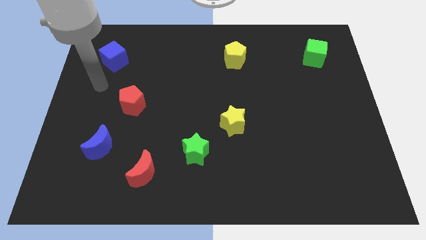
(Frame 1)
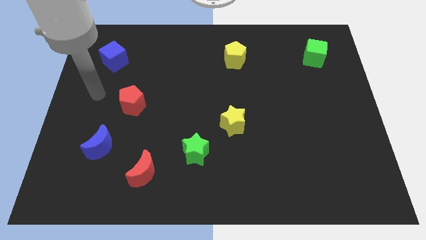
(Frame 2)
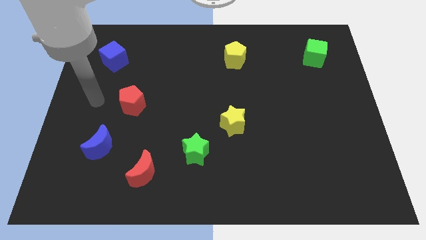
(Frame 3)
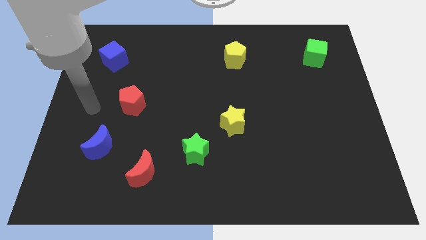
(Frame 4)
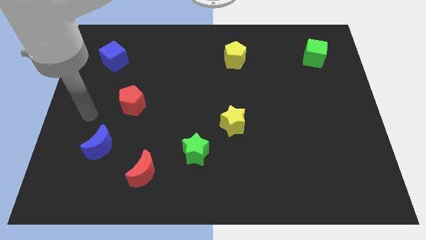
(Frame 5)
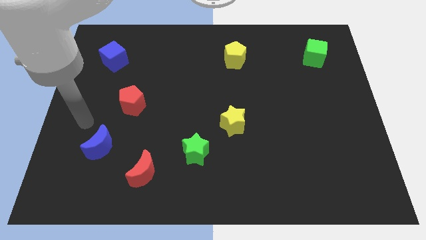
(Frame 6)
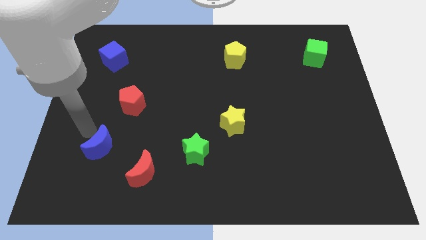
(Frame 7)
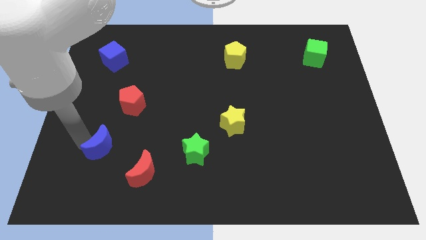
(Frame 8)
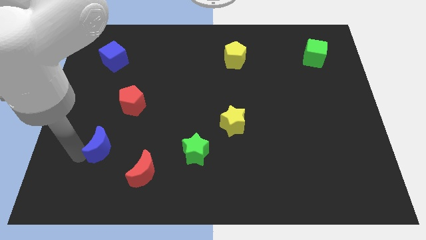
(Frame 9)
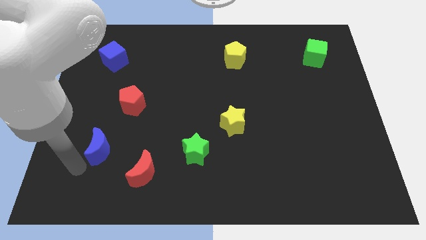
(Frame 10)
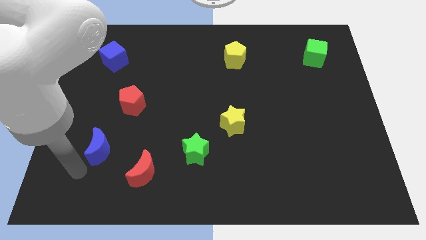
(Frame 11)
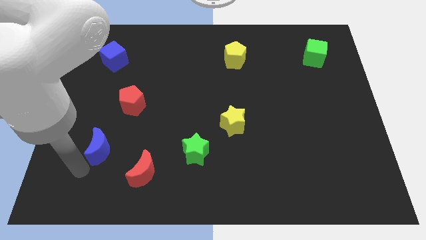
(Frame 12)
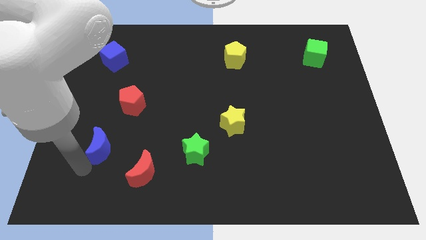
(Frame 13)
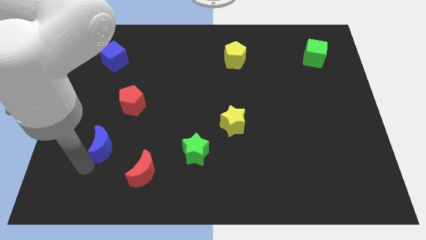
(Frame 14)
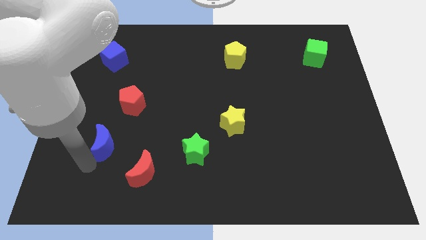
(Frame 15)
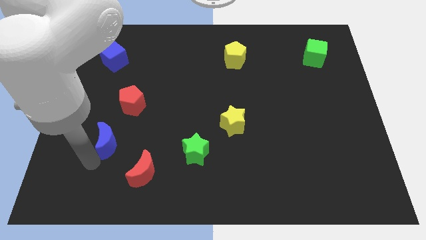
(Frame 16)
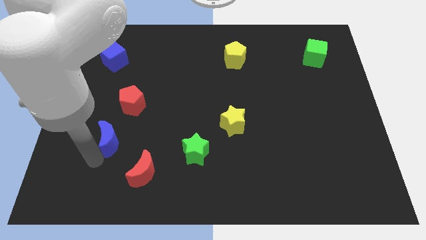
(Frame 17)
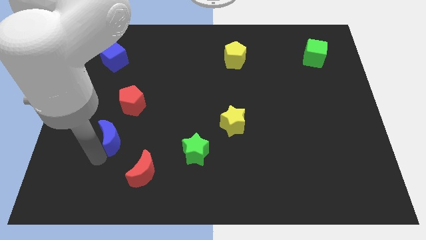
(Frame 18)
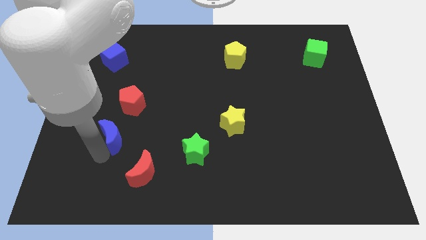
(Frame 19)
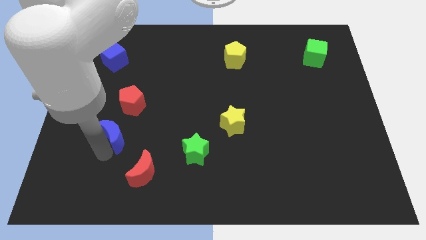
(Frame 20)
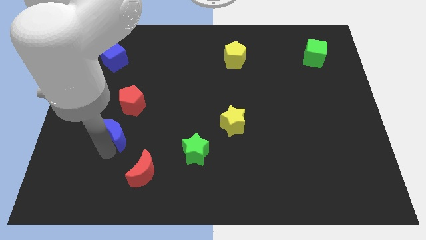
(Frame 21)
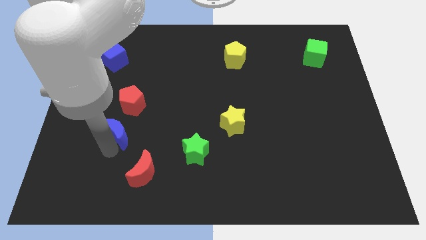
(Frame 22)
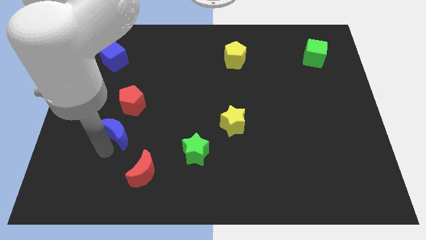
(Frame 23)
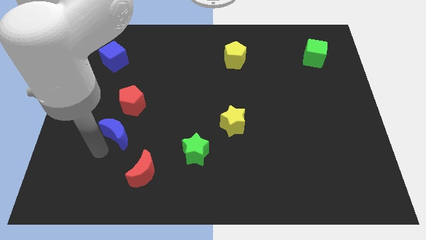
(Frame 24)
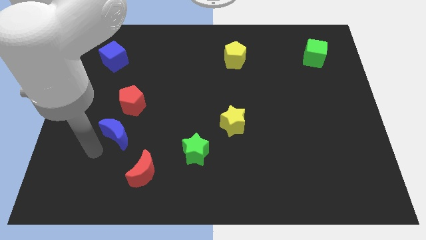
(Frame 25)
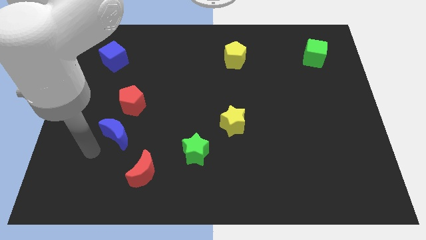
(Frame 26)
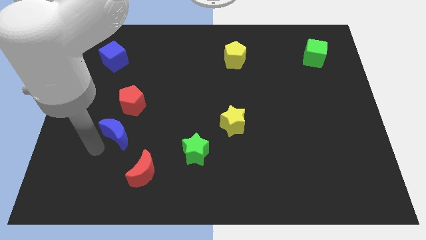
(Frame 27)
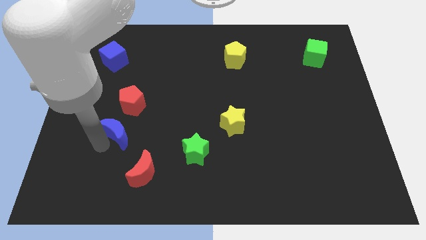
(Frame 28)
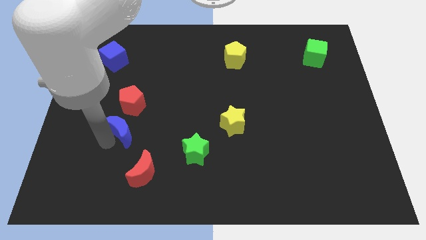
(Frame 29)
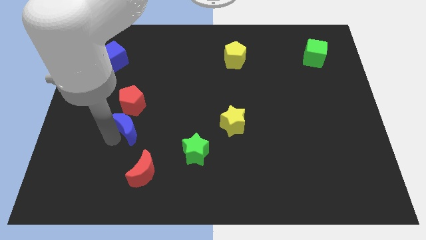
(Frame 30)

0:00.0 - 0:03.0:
slightly push the blue moon upwards and to the right diagonally

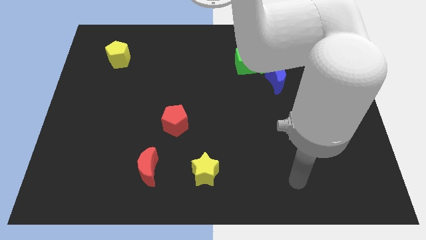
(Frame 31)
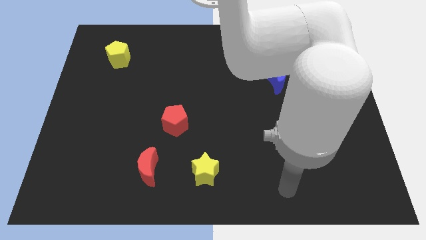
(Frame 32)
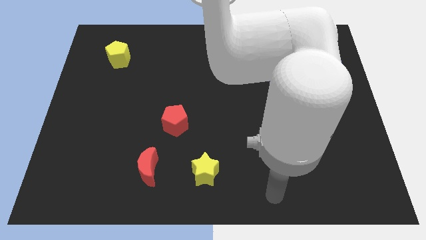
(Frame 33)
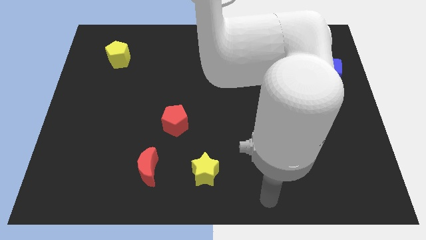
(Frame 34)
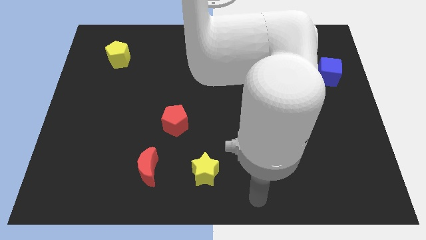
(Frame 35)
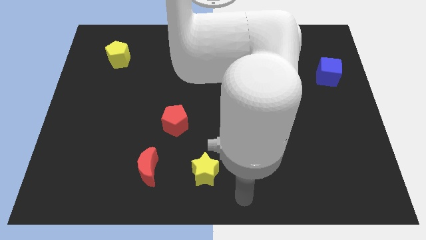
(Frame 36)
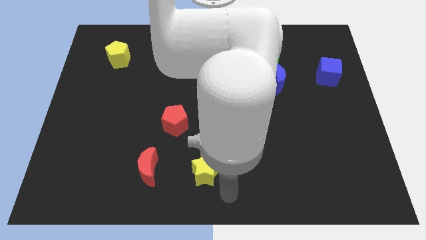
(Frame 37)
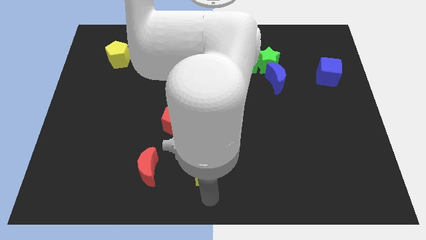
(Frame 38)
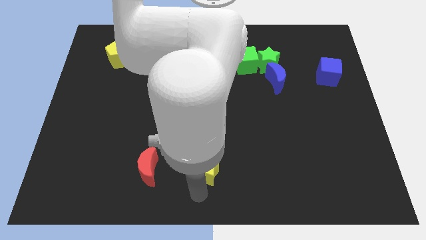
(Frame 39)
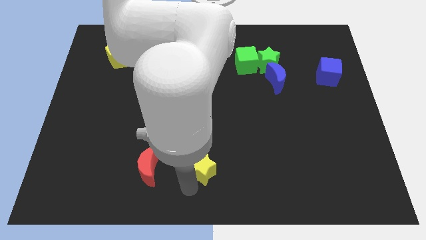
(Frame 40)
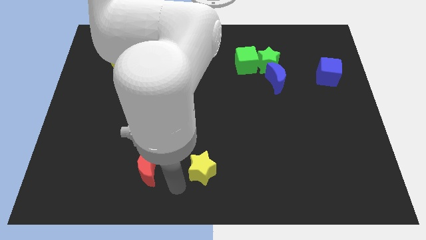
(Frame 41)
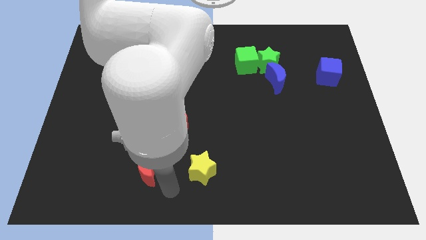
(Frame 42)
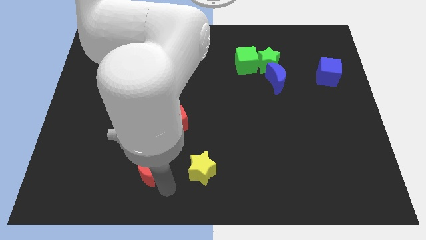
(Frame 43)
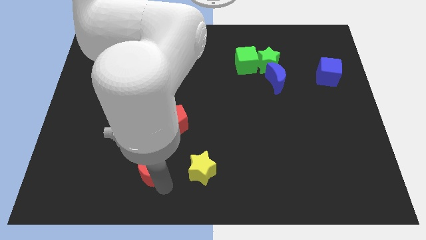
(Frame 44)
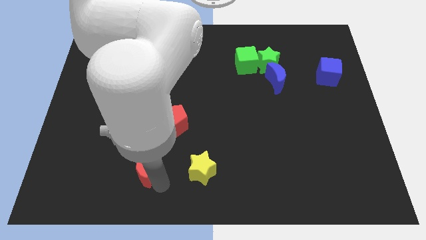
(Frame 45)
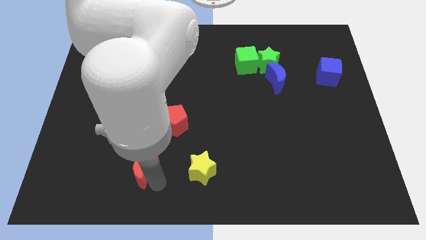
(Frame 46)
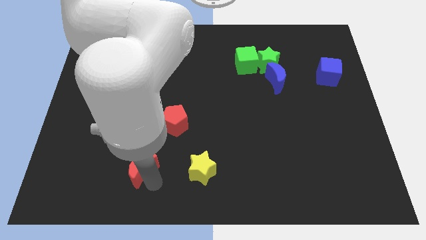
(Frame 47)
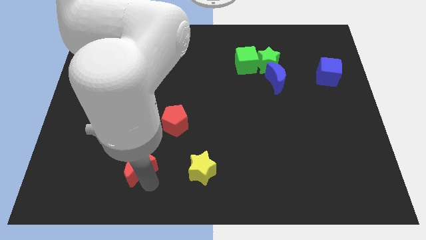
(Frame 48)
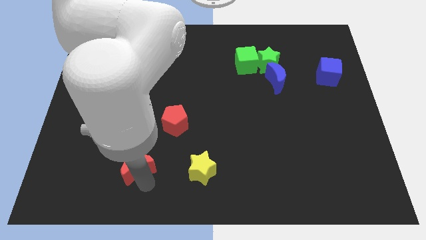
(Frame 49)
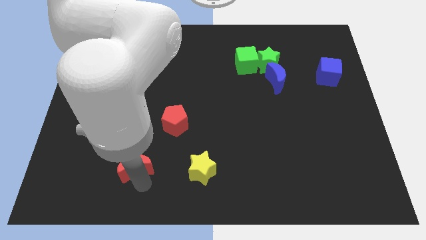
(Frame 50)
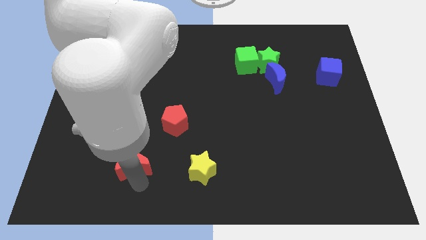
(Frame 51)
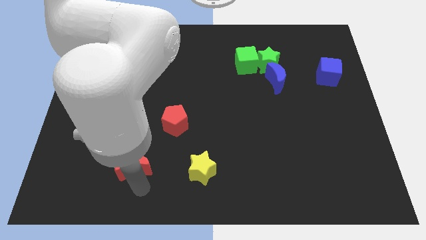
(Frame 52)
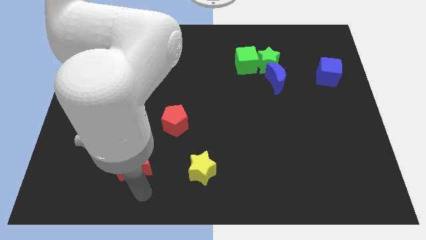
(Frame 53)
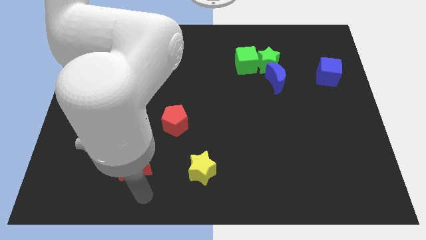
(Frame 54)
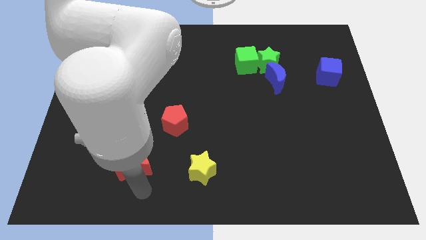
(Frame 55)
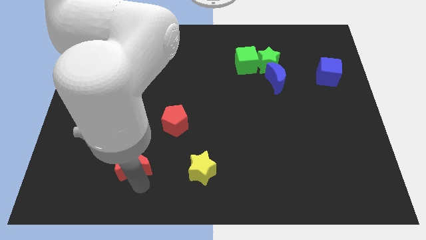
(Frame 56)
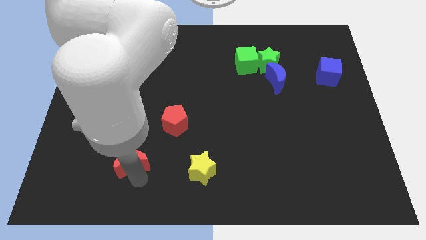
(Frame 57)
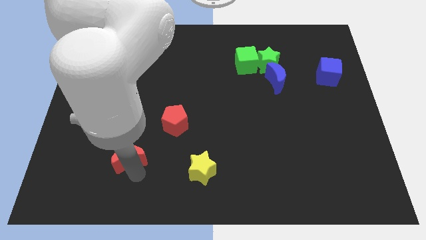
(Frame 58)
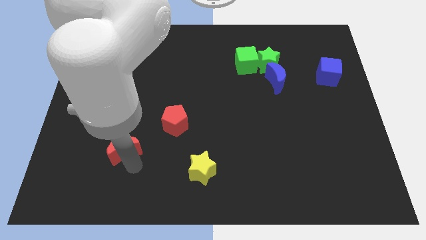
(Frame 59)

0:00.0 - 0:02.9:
slightly push the red moon upwards and to the left diagonally

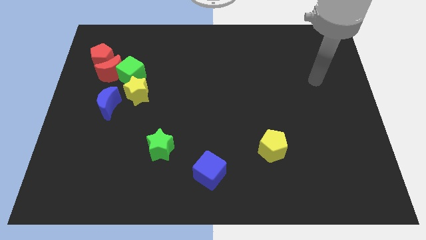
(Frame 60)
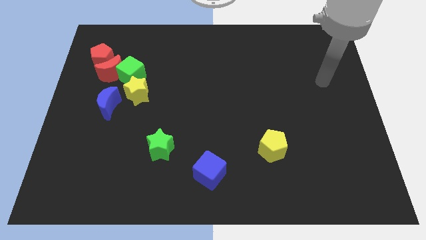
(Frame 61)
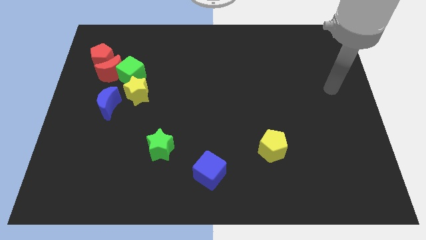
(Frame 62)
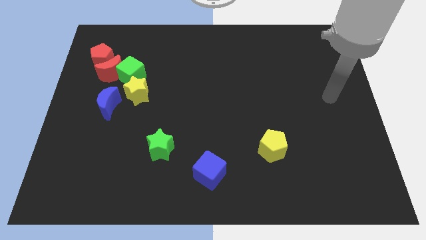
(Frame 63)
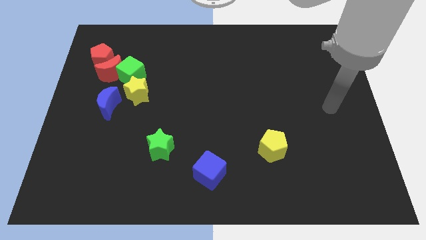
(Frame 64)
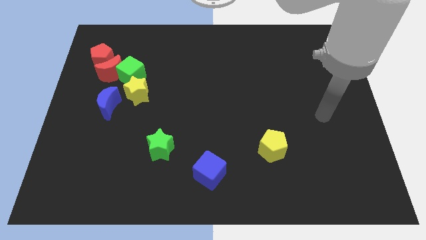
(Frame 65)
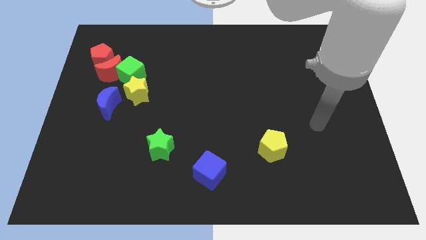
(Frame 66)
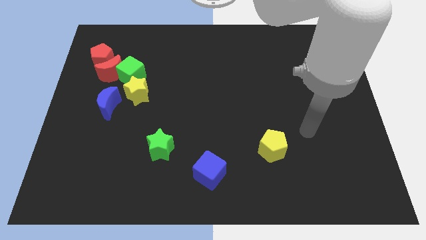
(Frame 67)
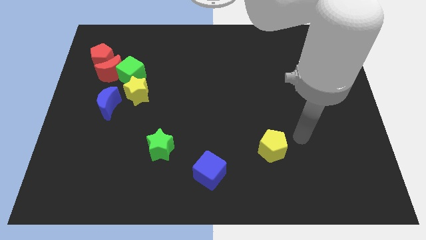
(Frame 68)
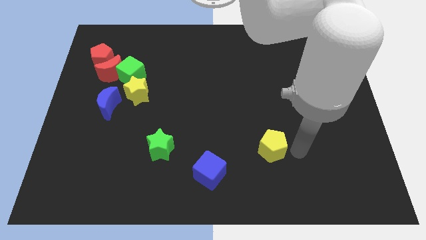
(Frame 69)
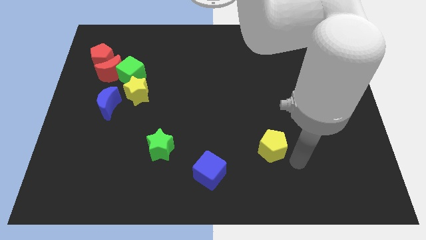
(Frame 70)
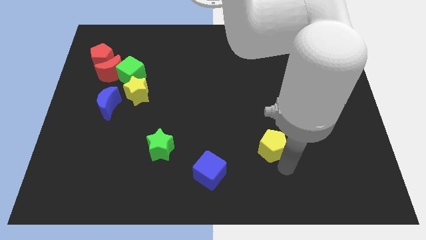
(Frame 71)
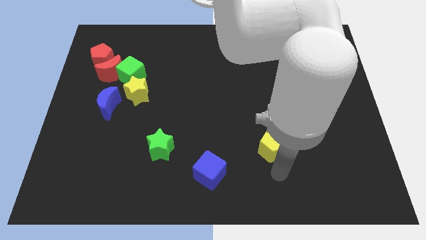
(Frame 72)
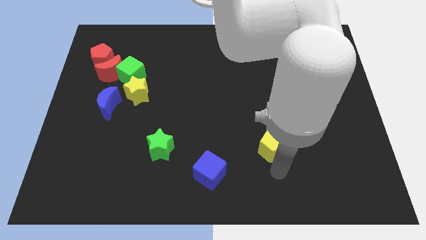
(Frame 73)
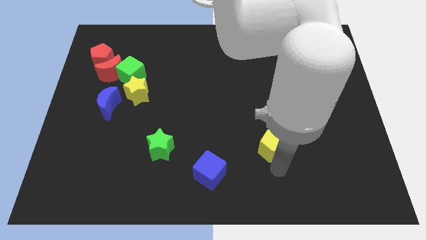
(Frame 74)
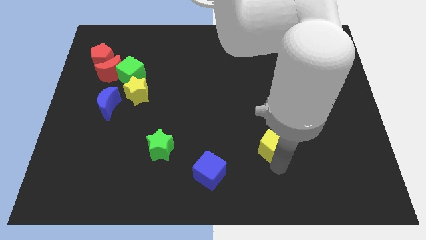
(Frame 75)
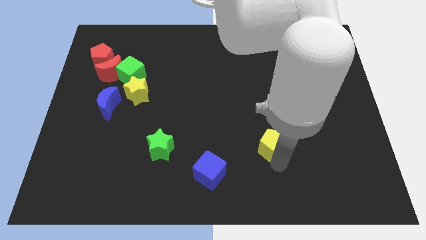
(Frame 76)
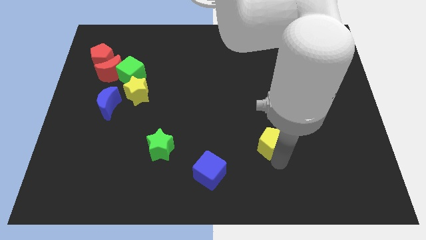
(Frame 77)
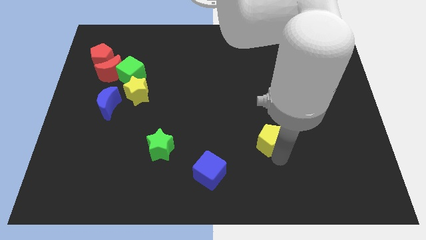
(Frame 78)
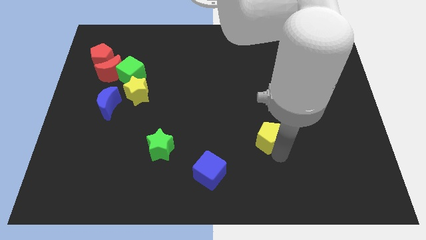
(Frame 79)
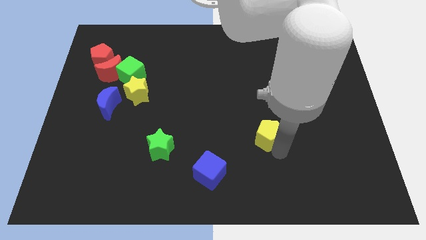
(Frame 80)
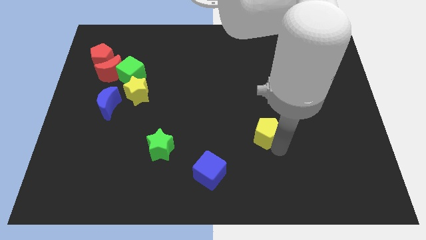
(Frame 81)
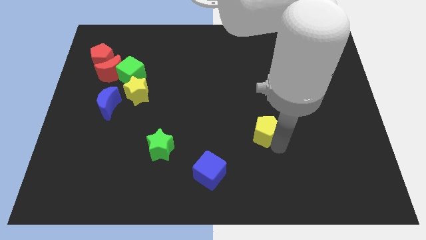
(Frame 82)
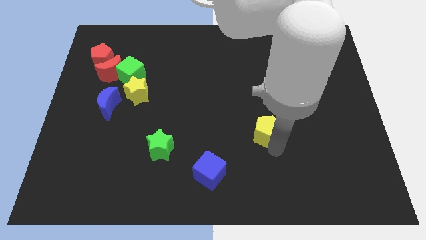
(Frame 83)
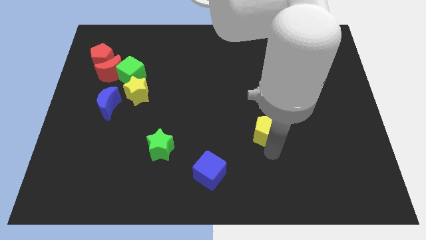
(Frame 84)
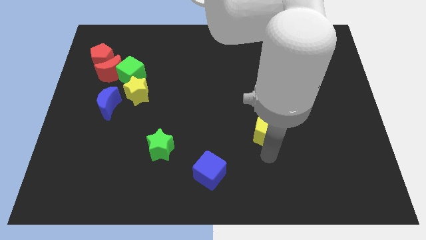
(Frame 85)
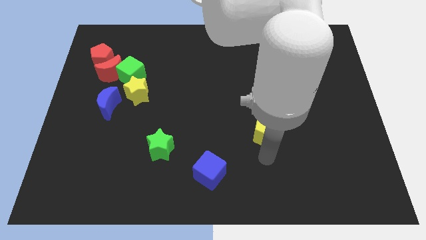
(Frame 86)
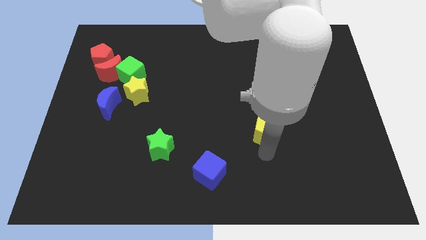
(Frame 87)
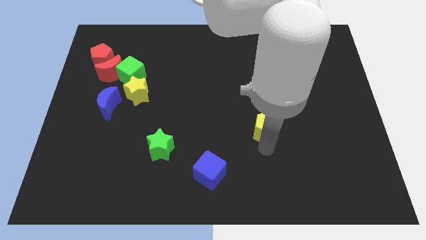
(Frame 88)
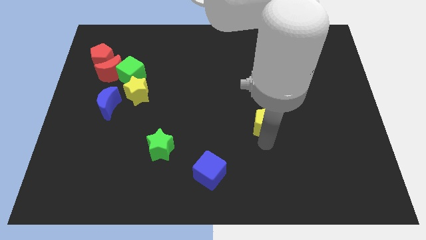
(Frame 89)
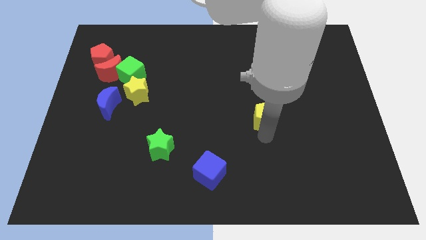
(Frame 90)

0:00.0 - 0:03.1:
slightly push the yellow pentagon up
